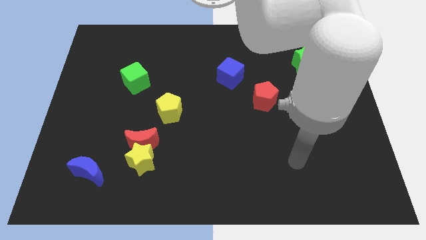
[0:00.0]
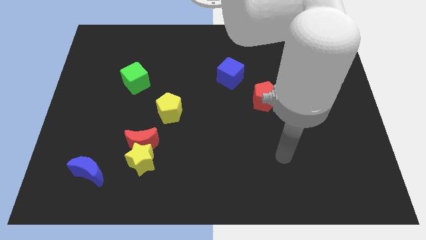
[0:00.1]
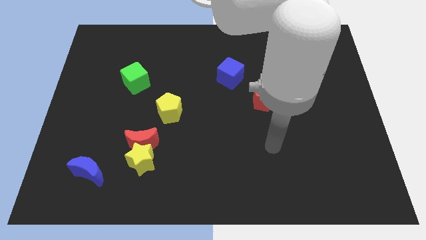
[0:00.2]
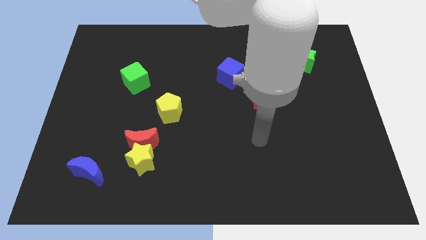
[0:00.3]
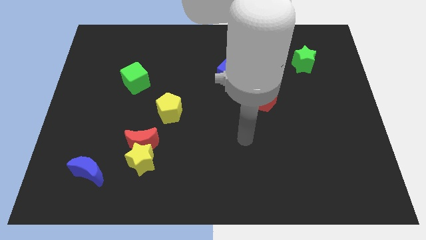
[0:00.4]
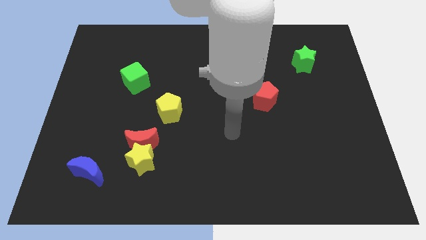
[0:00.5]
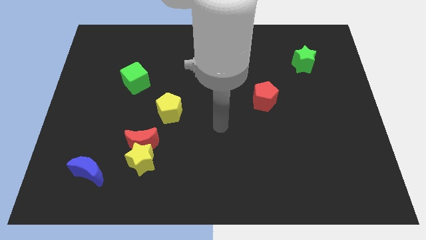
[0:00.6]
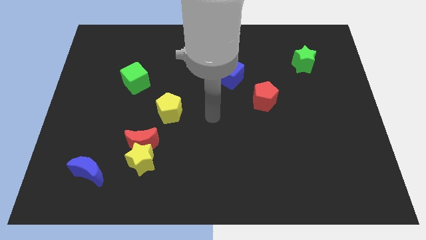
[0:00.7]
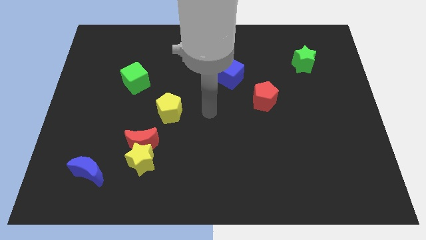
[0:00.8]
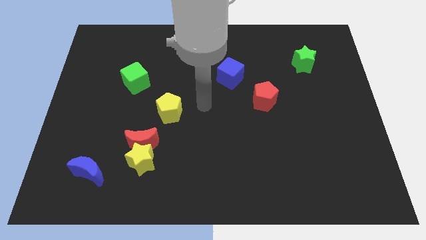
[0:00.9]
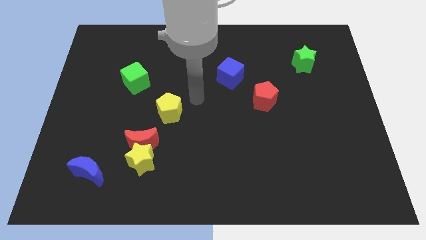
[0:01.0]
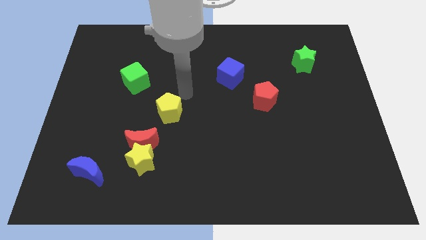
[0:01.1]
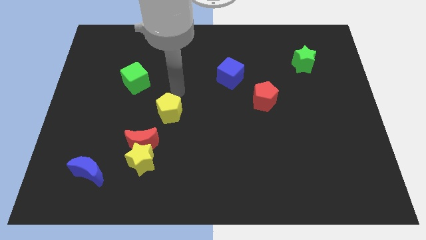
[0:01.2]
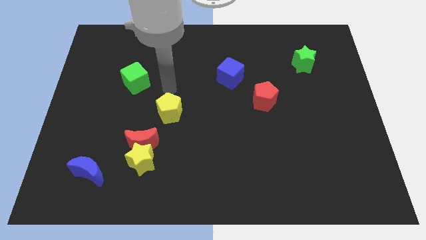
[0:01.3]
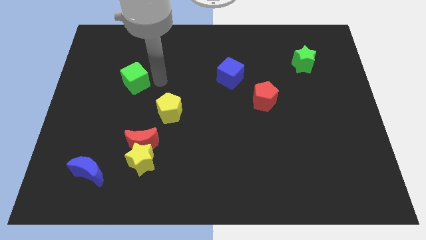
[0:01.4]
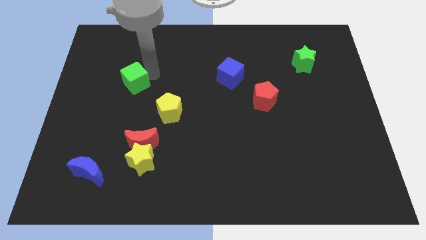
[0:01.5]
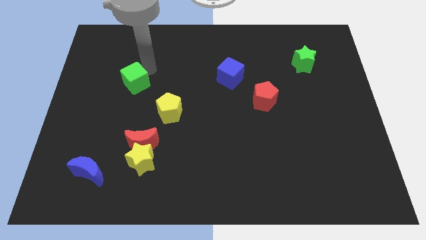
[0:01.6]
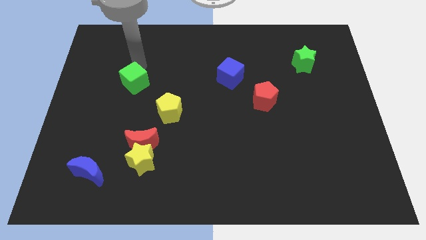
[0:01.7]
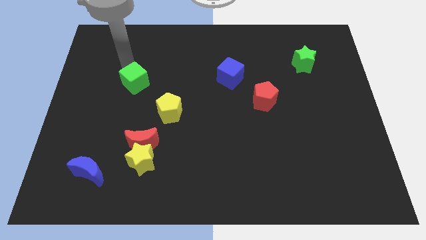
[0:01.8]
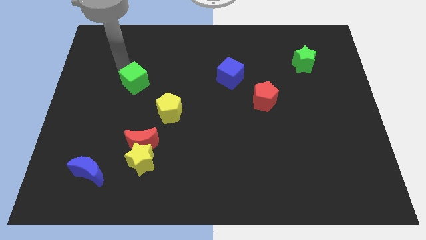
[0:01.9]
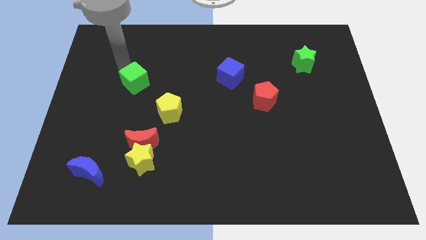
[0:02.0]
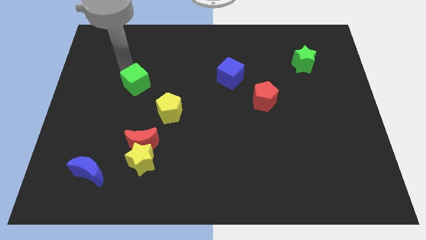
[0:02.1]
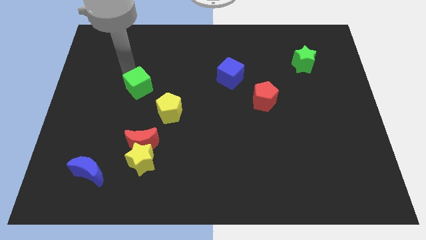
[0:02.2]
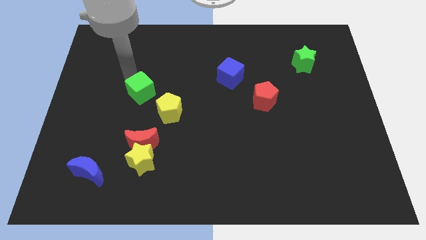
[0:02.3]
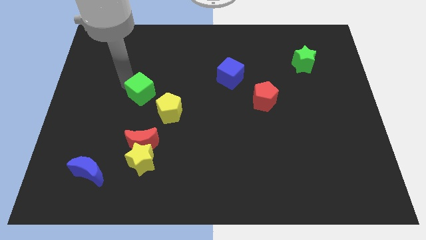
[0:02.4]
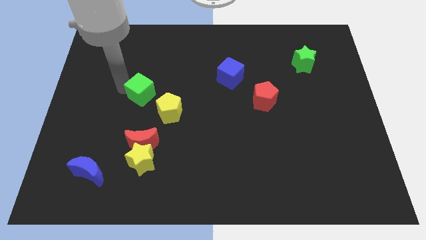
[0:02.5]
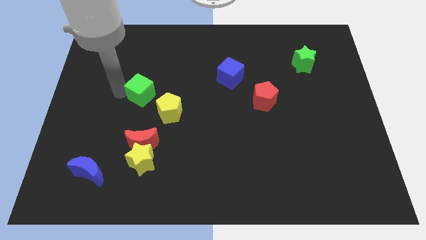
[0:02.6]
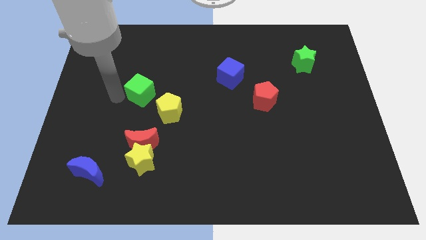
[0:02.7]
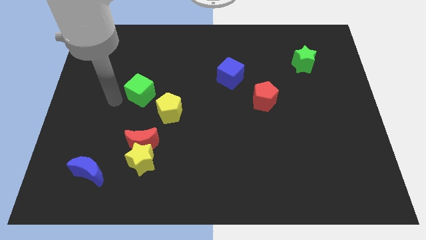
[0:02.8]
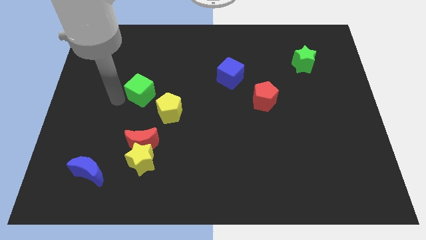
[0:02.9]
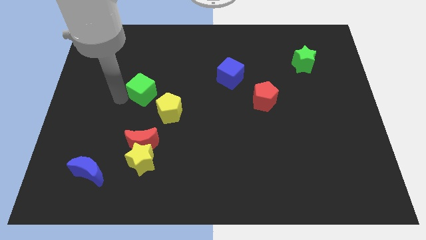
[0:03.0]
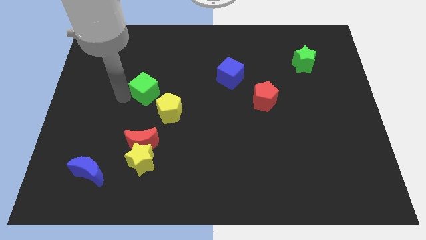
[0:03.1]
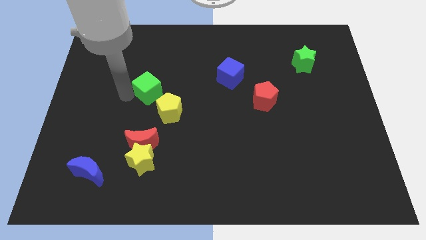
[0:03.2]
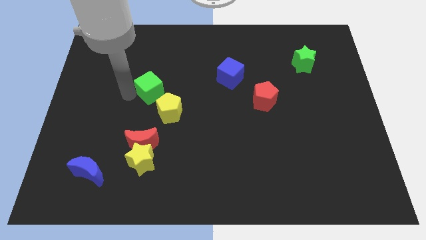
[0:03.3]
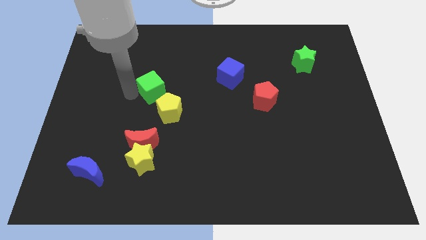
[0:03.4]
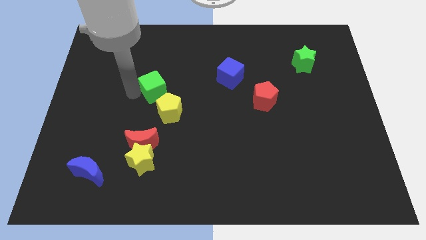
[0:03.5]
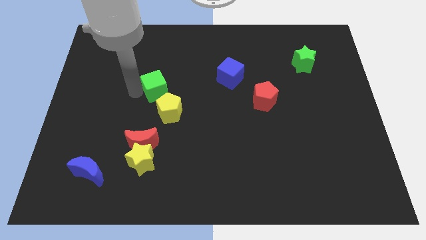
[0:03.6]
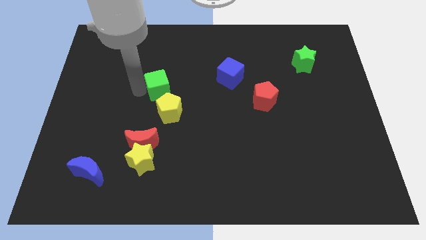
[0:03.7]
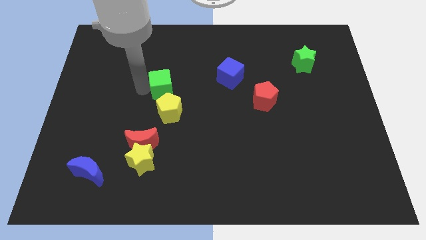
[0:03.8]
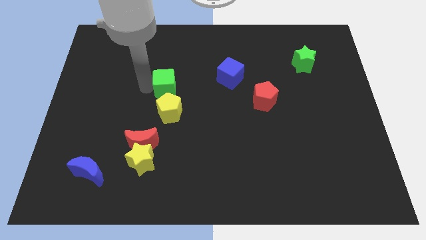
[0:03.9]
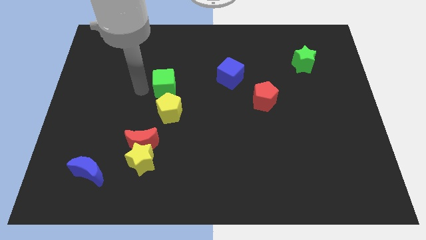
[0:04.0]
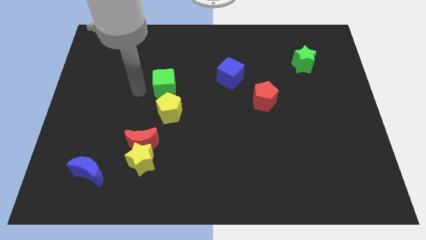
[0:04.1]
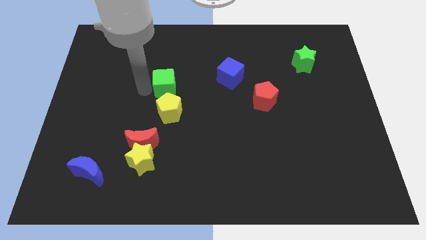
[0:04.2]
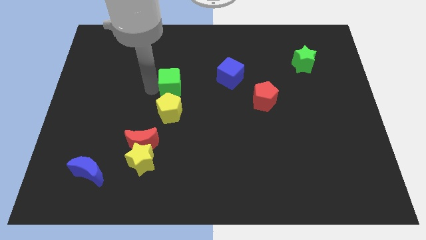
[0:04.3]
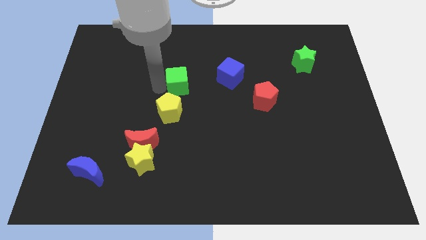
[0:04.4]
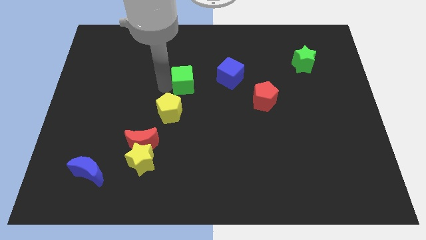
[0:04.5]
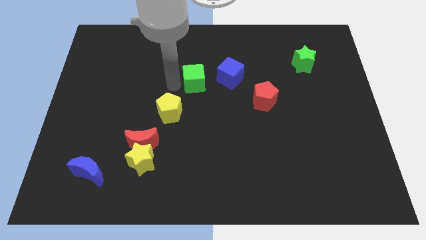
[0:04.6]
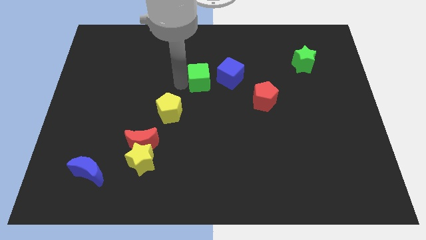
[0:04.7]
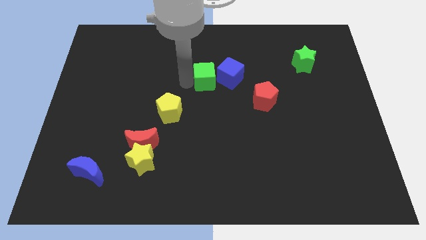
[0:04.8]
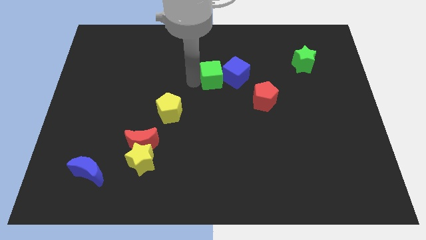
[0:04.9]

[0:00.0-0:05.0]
move the green cube to the blue cube

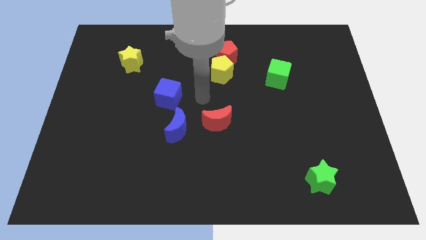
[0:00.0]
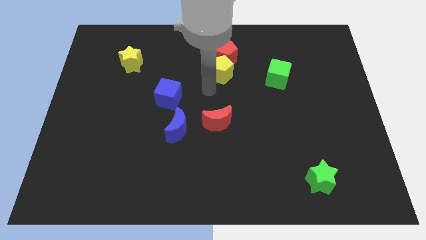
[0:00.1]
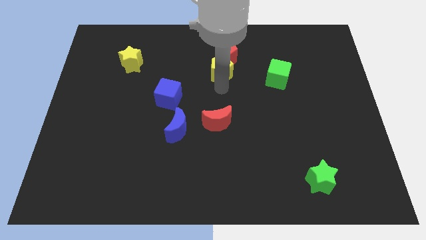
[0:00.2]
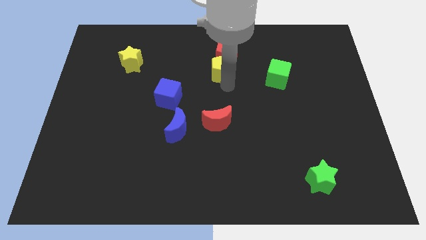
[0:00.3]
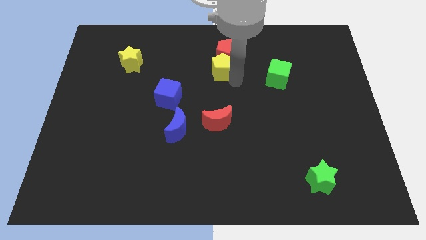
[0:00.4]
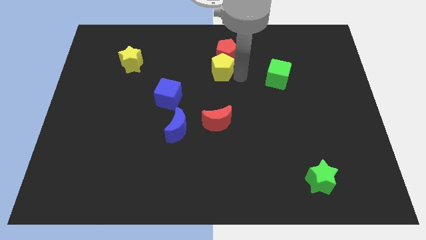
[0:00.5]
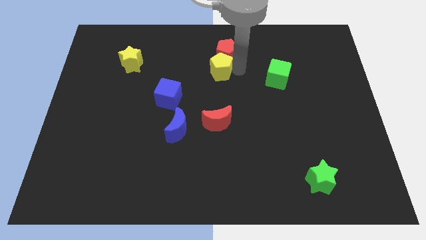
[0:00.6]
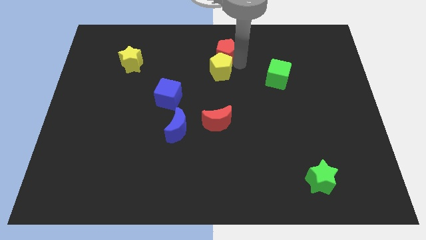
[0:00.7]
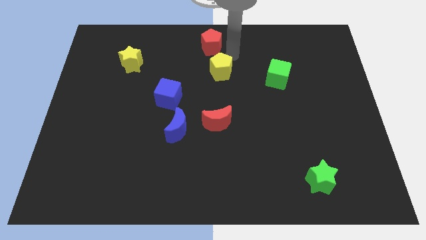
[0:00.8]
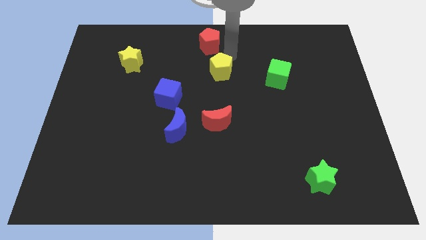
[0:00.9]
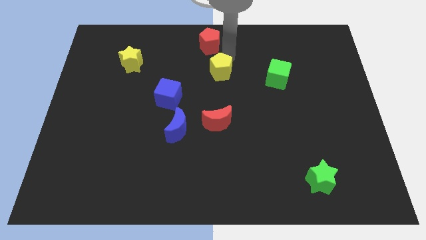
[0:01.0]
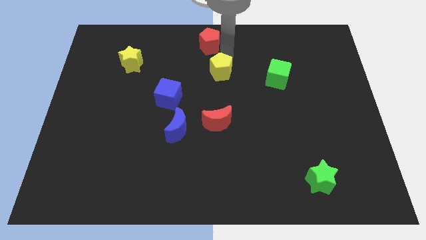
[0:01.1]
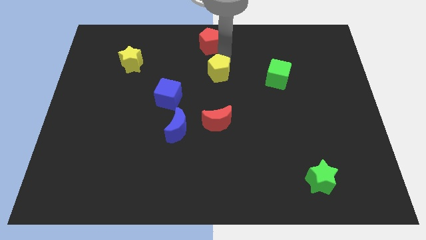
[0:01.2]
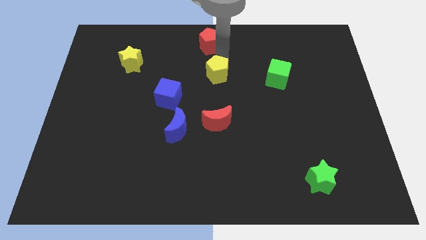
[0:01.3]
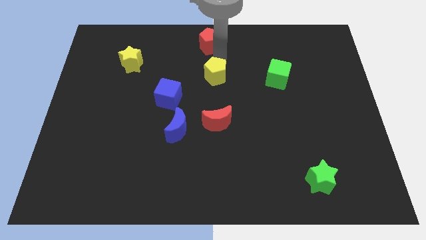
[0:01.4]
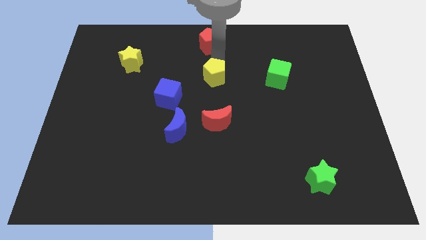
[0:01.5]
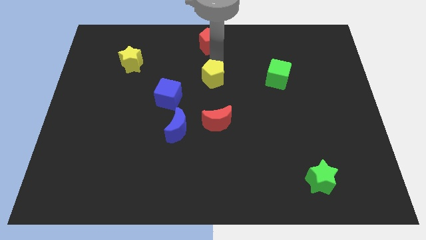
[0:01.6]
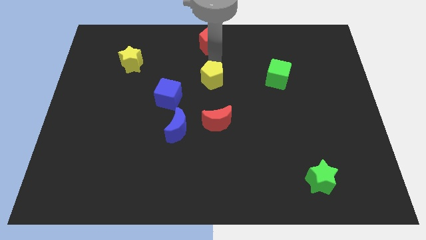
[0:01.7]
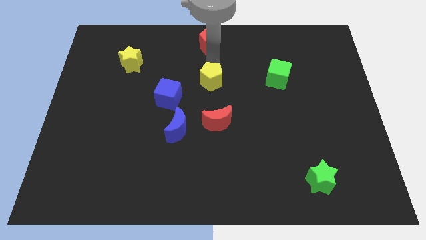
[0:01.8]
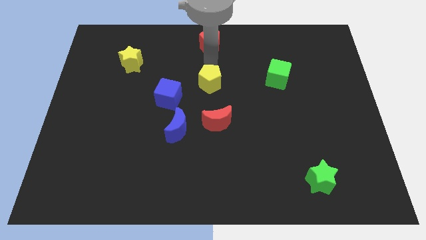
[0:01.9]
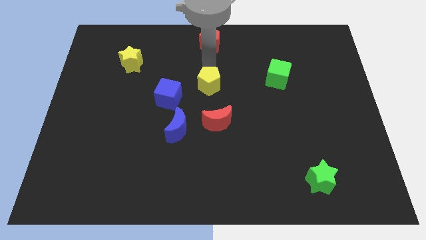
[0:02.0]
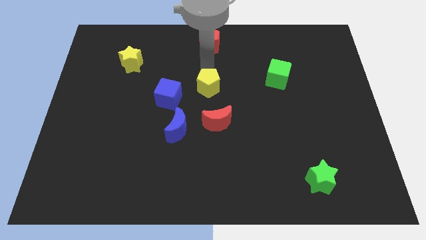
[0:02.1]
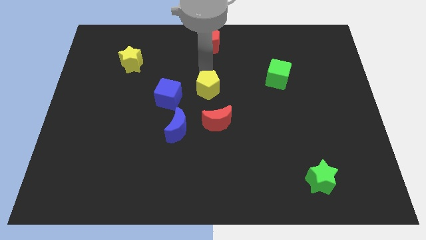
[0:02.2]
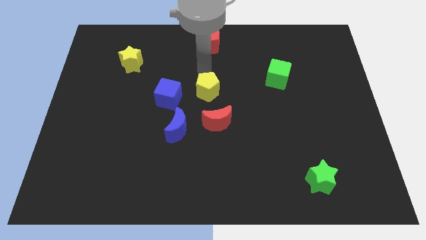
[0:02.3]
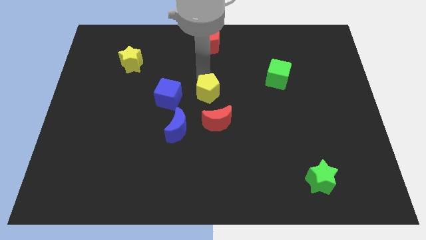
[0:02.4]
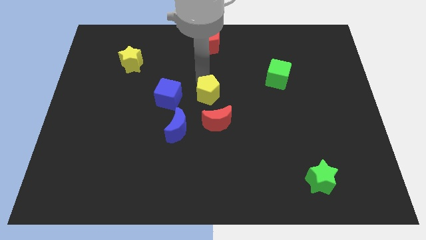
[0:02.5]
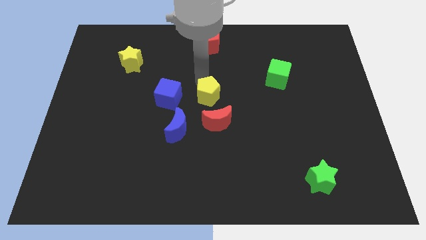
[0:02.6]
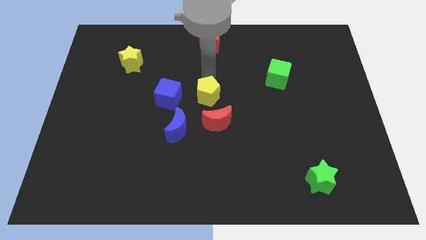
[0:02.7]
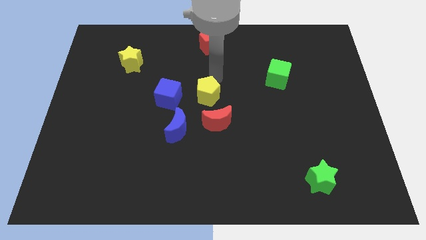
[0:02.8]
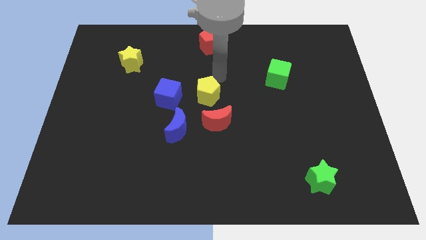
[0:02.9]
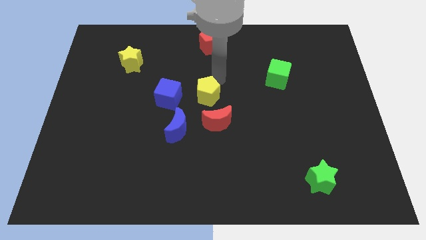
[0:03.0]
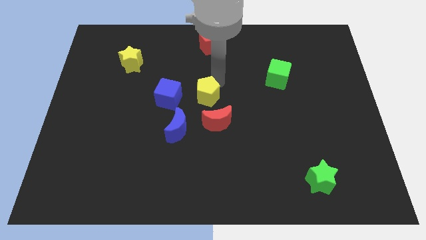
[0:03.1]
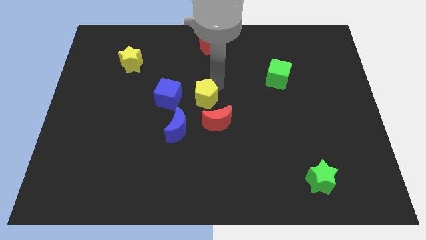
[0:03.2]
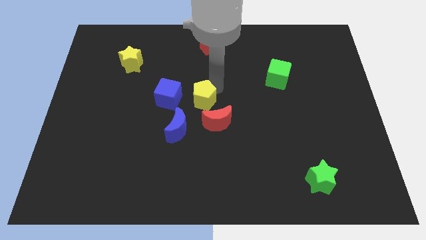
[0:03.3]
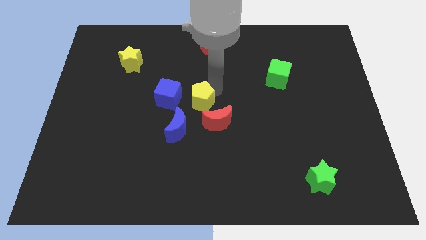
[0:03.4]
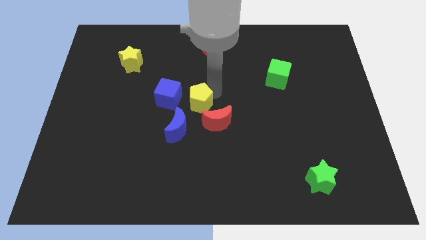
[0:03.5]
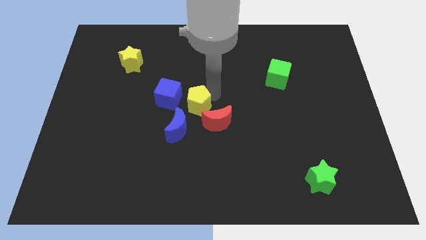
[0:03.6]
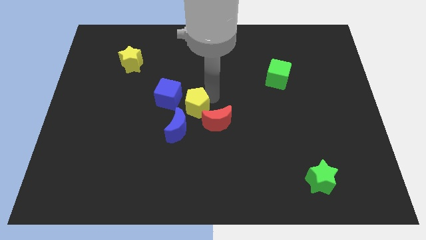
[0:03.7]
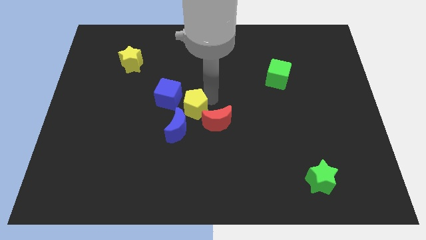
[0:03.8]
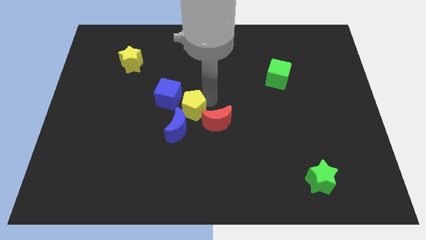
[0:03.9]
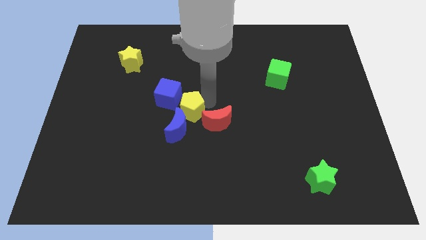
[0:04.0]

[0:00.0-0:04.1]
slide the yellow pentagon next to the blue moon
